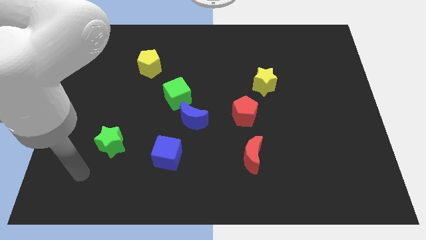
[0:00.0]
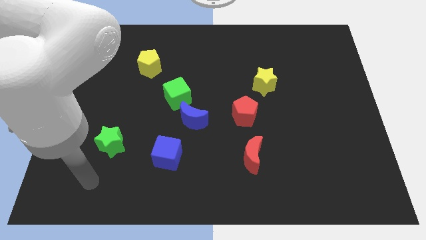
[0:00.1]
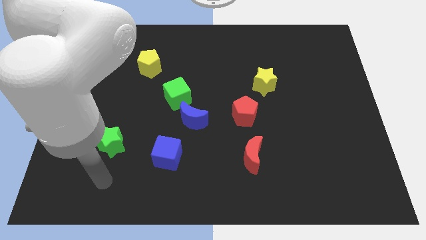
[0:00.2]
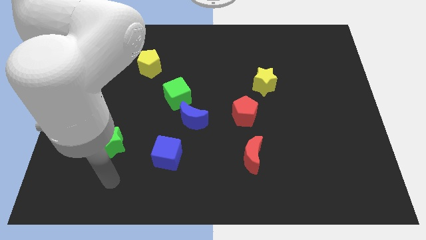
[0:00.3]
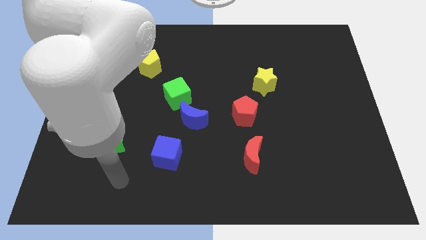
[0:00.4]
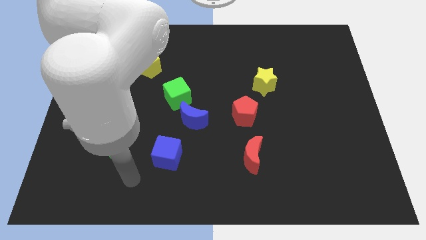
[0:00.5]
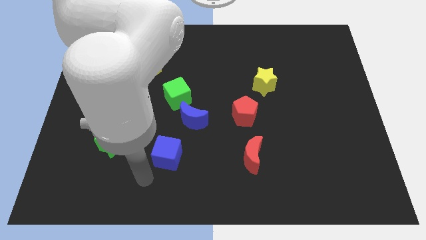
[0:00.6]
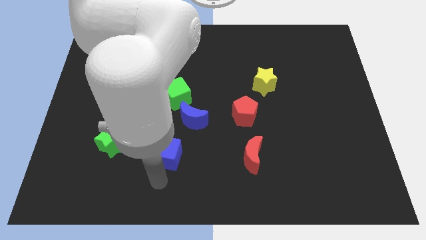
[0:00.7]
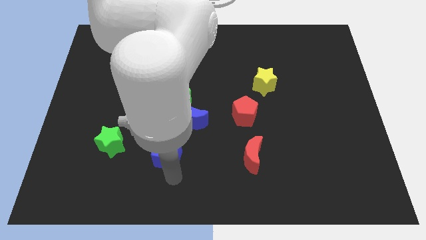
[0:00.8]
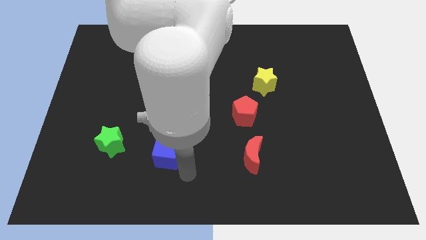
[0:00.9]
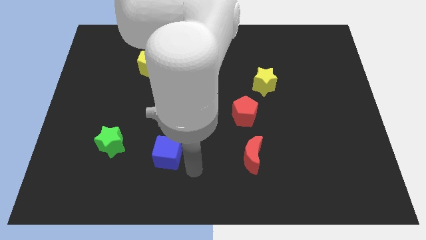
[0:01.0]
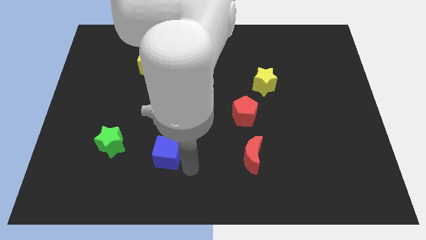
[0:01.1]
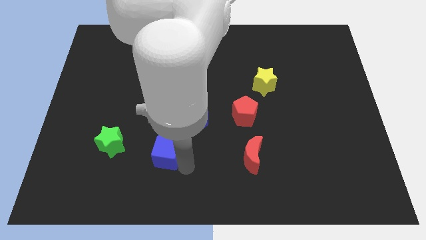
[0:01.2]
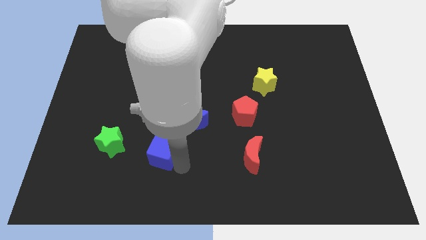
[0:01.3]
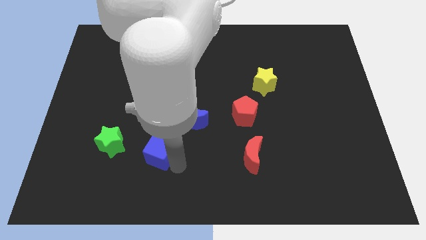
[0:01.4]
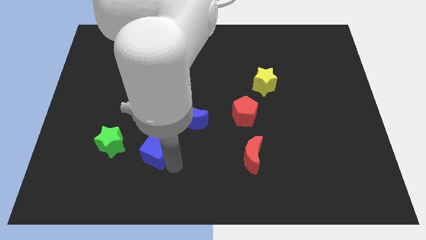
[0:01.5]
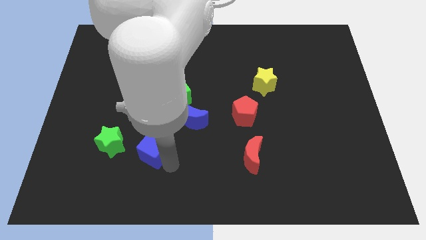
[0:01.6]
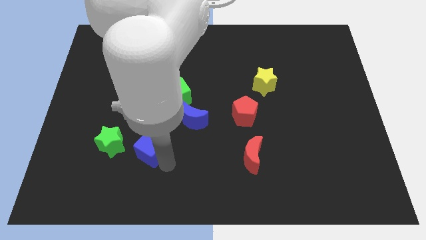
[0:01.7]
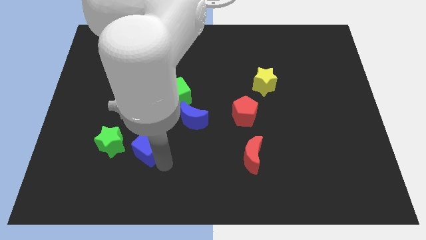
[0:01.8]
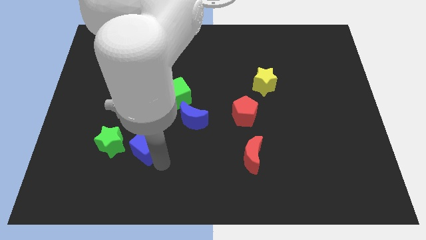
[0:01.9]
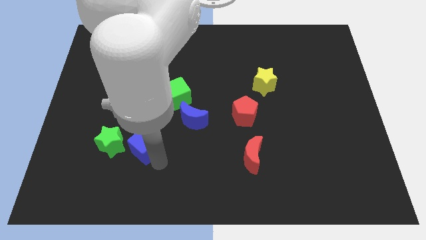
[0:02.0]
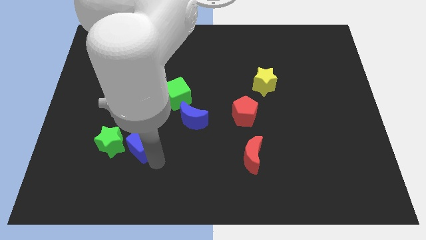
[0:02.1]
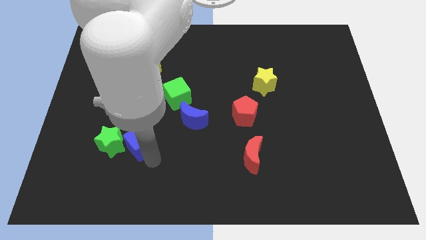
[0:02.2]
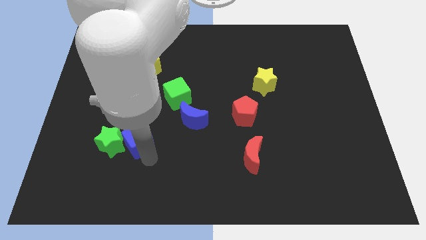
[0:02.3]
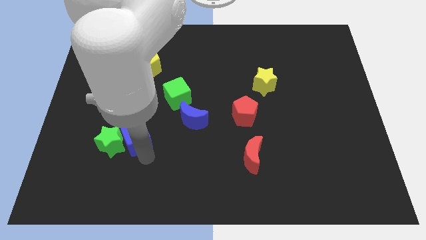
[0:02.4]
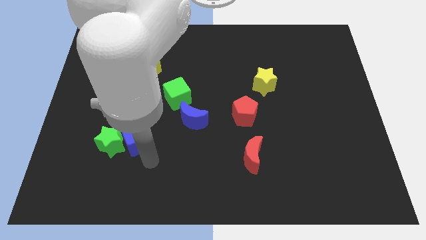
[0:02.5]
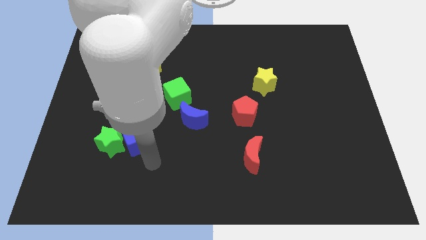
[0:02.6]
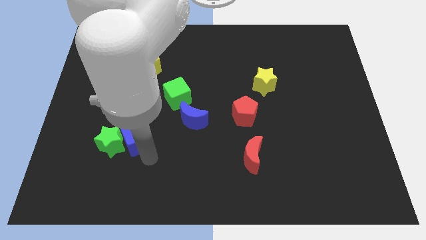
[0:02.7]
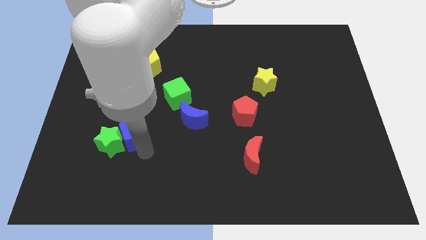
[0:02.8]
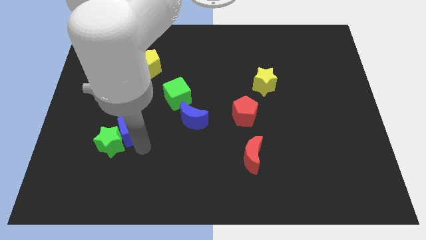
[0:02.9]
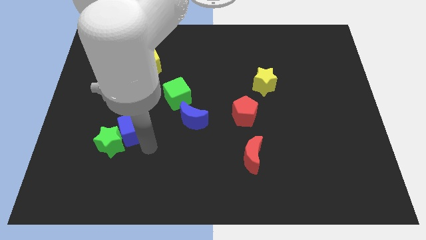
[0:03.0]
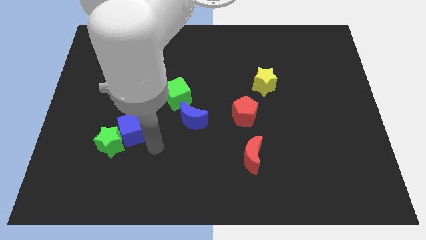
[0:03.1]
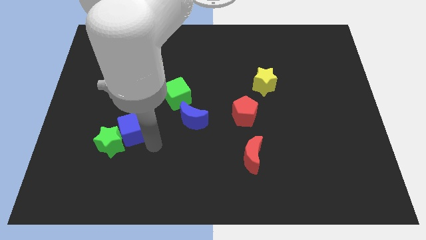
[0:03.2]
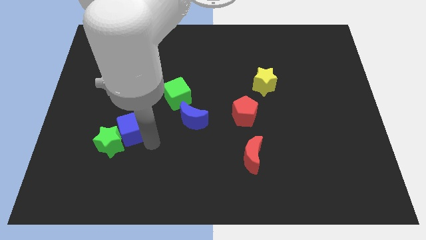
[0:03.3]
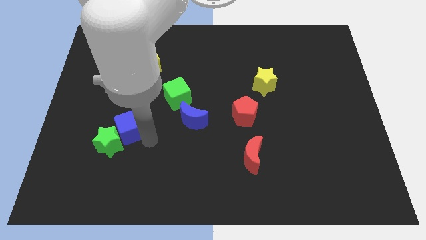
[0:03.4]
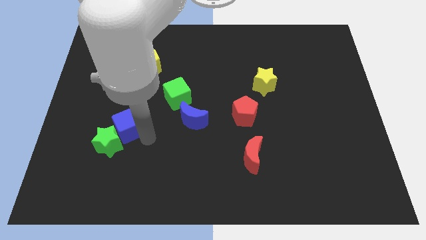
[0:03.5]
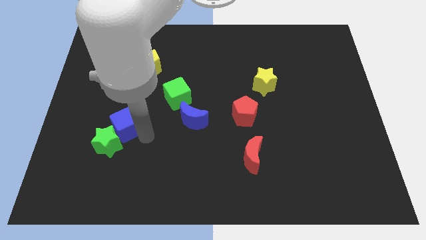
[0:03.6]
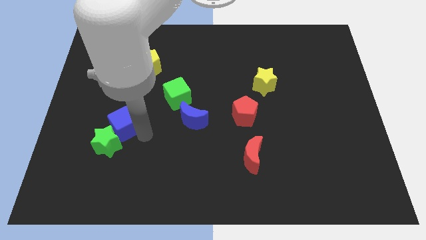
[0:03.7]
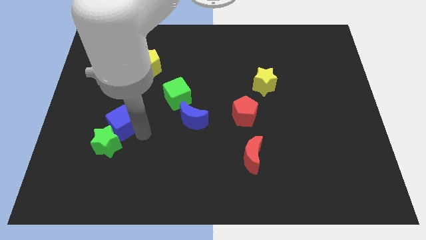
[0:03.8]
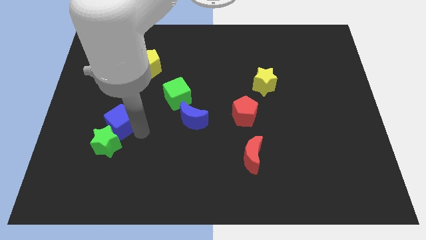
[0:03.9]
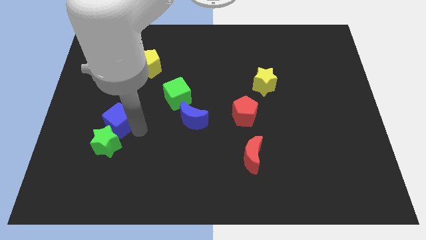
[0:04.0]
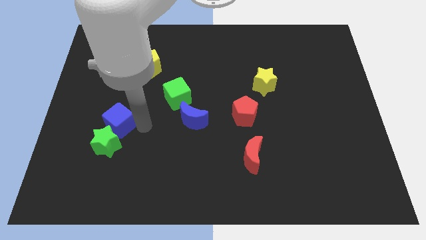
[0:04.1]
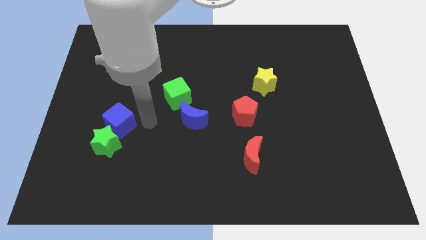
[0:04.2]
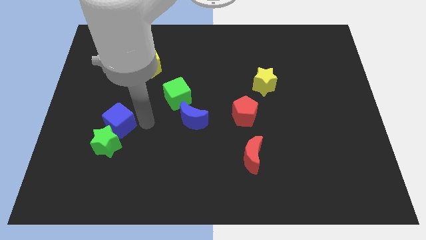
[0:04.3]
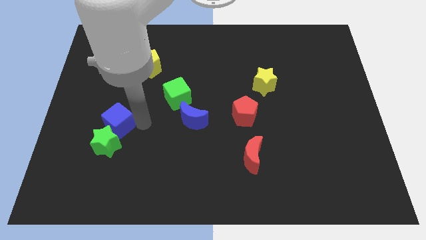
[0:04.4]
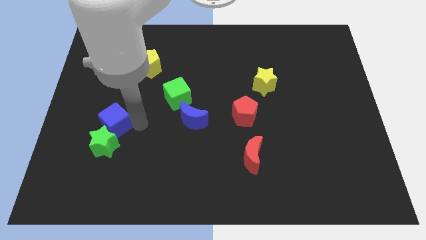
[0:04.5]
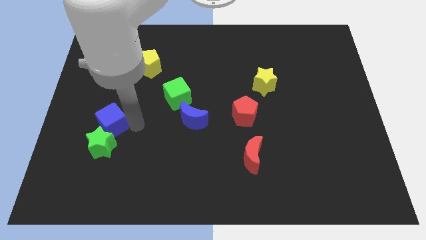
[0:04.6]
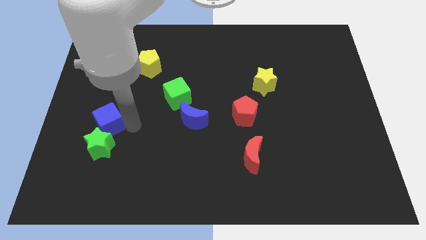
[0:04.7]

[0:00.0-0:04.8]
put the blue cube diagonally up and to the left of the green star

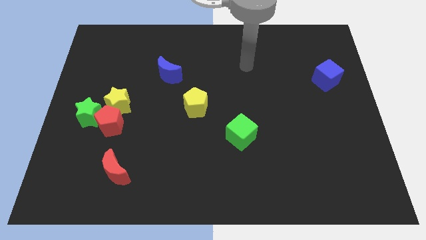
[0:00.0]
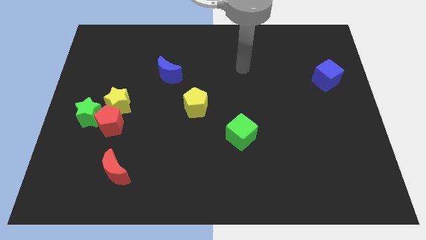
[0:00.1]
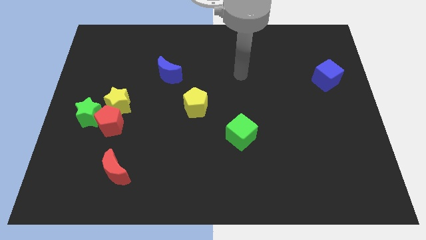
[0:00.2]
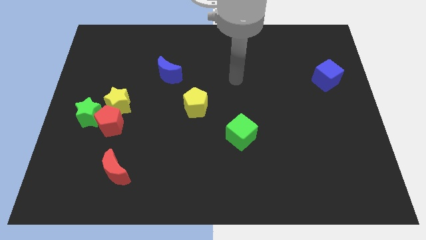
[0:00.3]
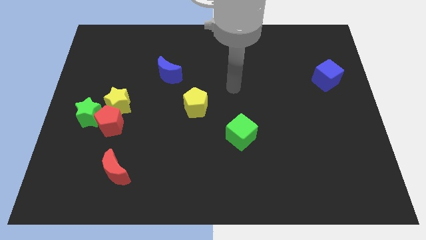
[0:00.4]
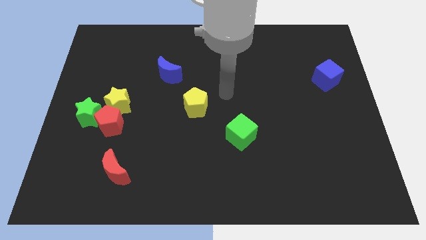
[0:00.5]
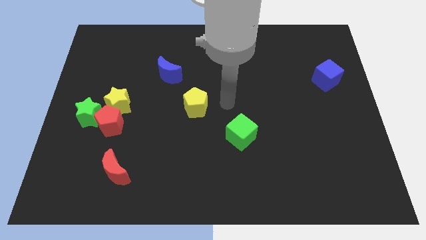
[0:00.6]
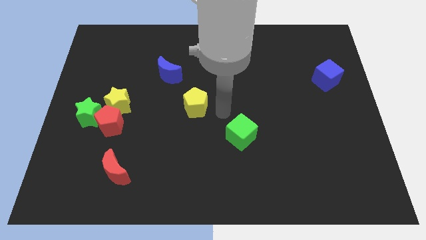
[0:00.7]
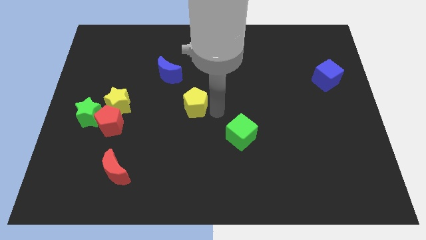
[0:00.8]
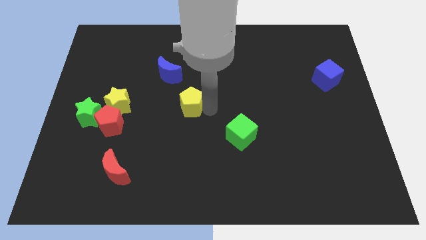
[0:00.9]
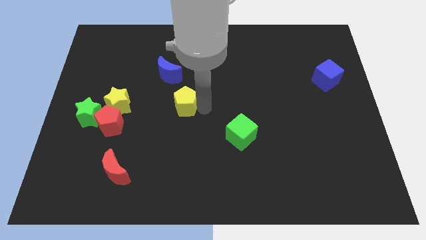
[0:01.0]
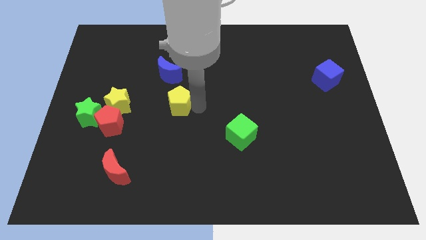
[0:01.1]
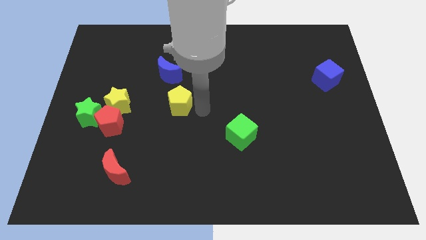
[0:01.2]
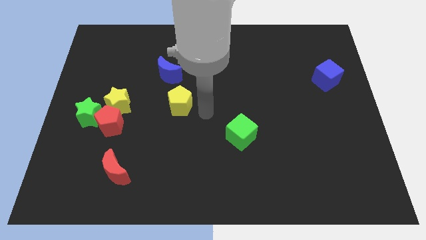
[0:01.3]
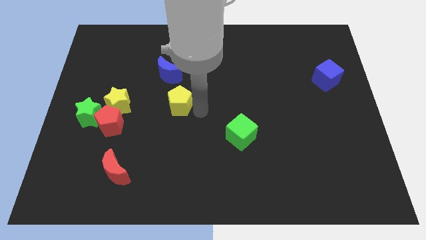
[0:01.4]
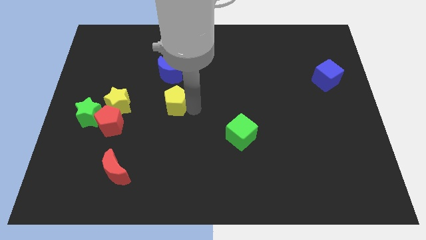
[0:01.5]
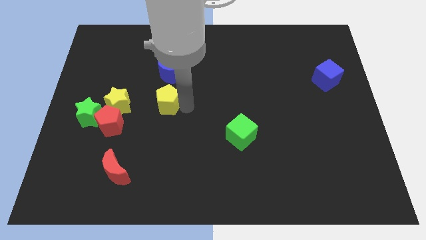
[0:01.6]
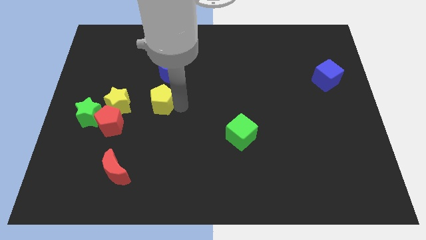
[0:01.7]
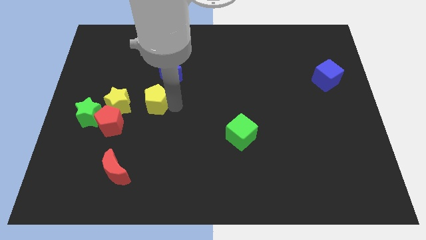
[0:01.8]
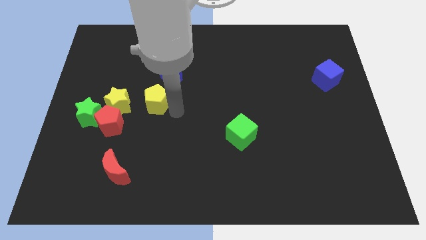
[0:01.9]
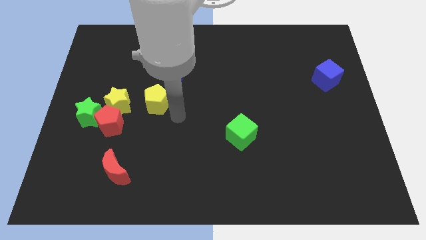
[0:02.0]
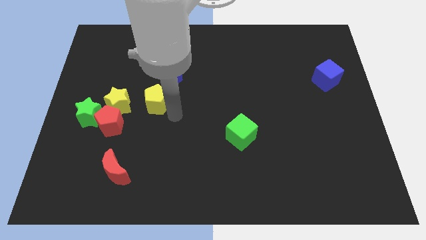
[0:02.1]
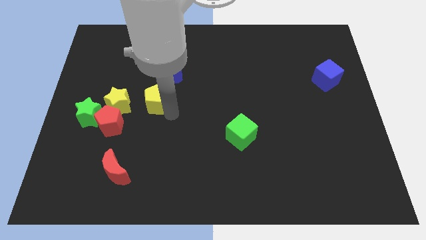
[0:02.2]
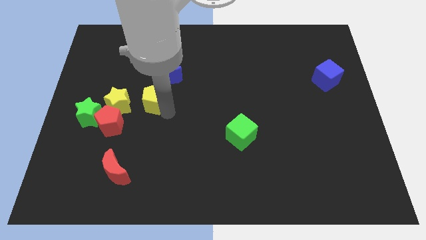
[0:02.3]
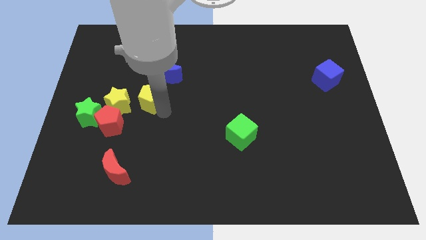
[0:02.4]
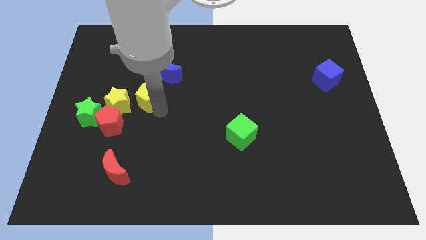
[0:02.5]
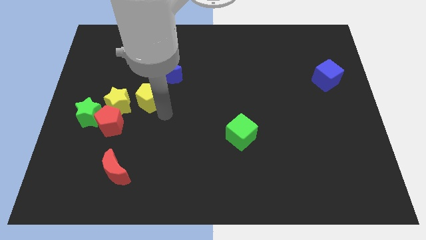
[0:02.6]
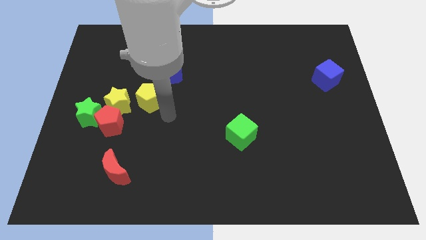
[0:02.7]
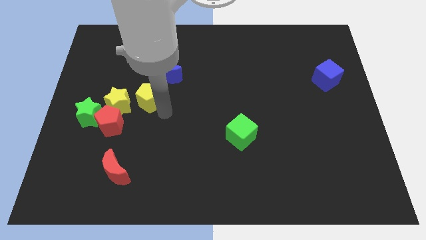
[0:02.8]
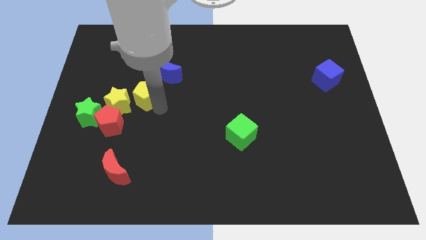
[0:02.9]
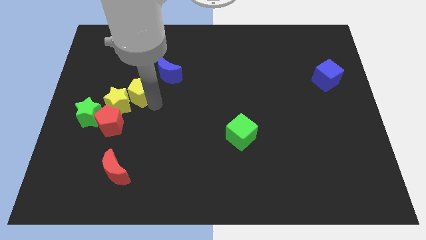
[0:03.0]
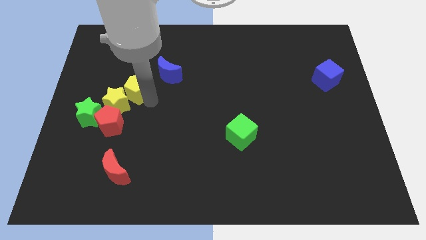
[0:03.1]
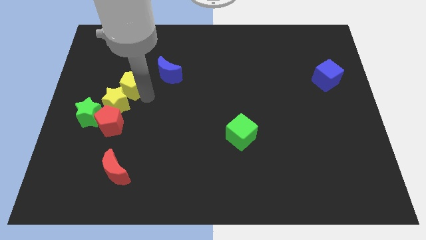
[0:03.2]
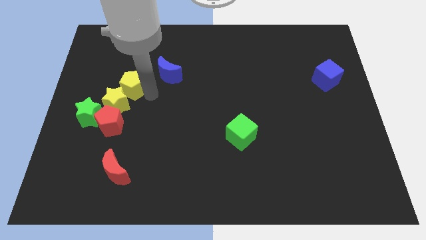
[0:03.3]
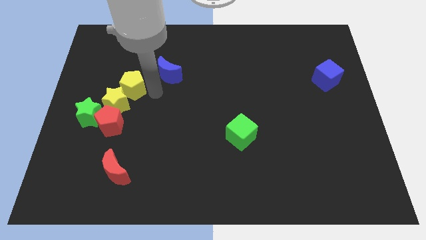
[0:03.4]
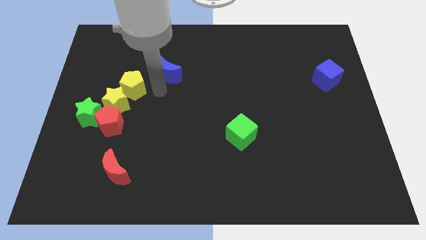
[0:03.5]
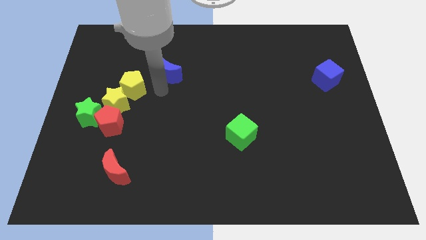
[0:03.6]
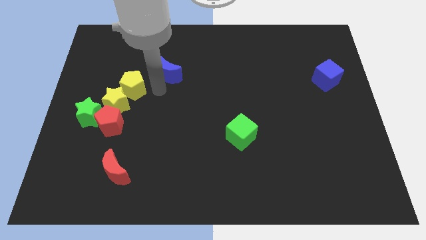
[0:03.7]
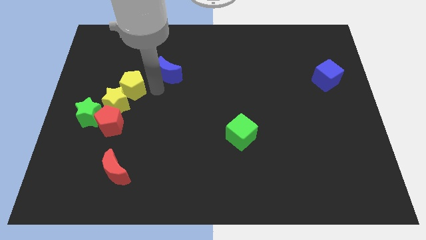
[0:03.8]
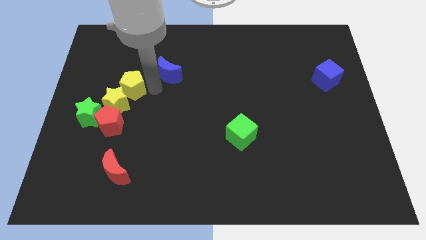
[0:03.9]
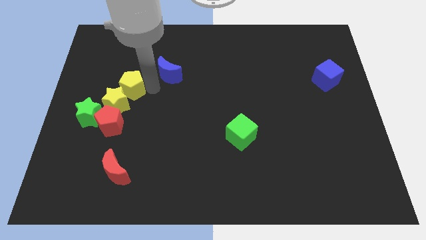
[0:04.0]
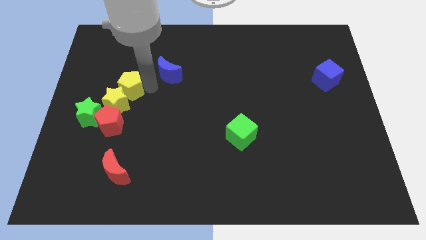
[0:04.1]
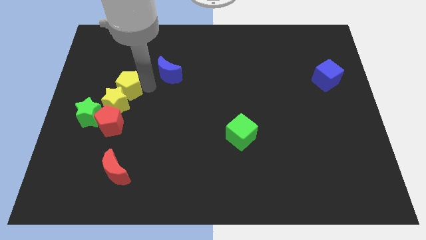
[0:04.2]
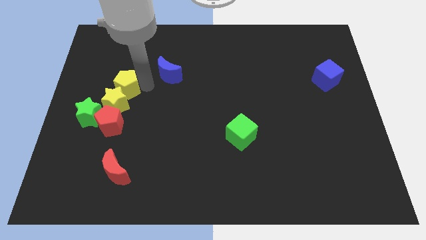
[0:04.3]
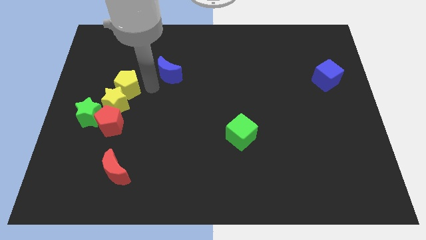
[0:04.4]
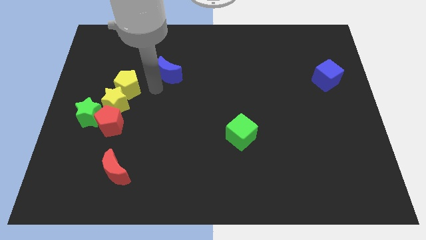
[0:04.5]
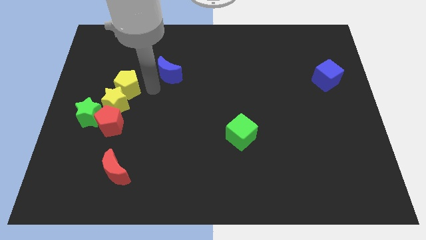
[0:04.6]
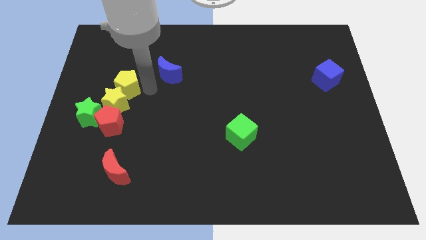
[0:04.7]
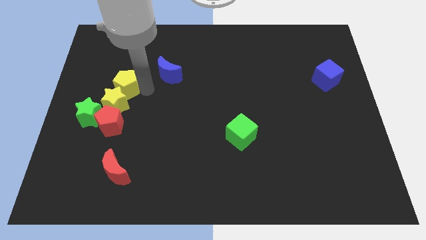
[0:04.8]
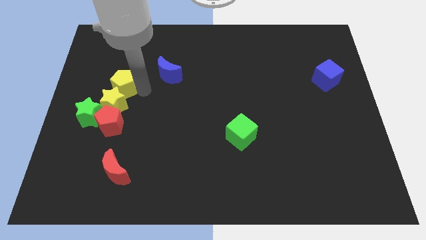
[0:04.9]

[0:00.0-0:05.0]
move the yellow pentagon to the top left side of the yellow star
